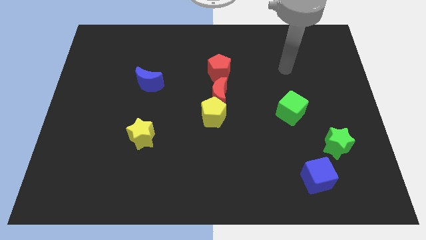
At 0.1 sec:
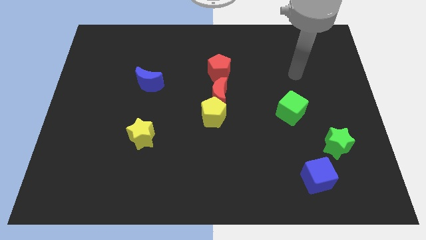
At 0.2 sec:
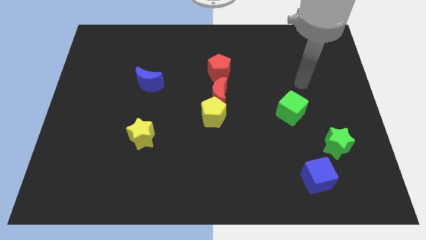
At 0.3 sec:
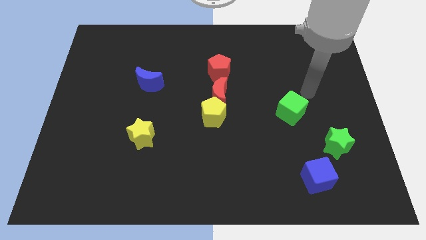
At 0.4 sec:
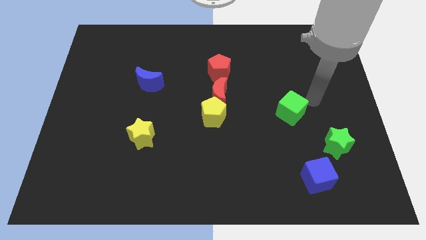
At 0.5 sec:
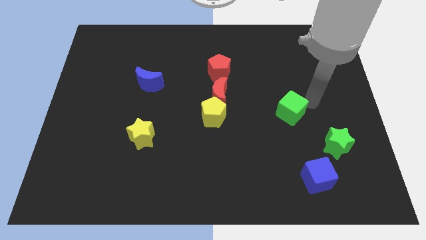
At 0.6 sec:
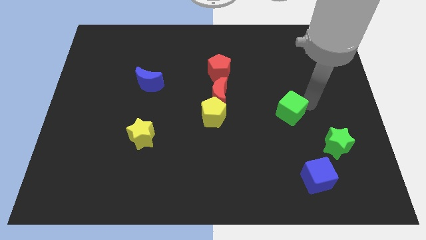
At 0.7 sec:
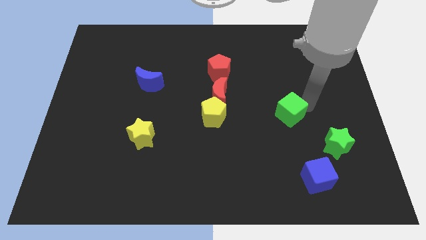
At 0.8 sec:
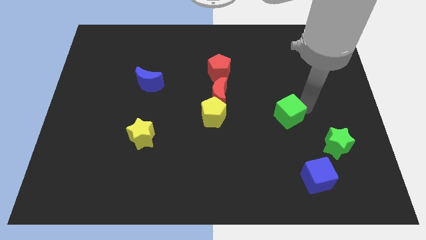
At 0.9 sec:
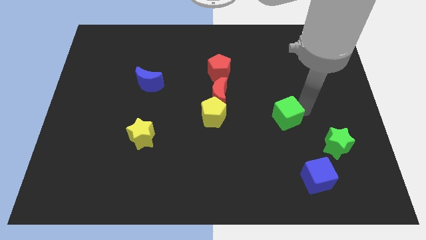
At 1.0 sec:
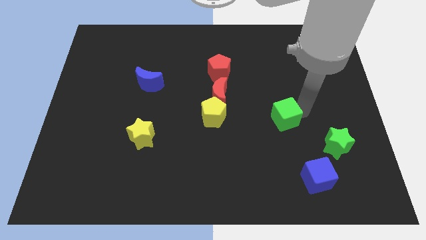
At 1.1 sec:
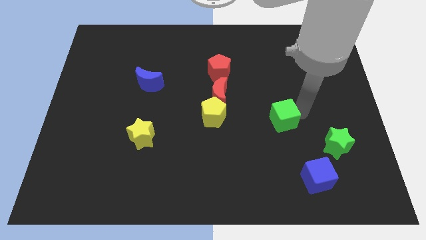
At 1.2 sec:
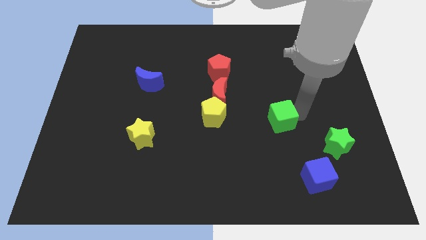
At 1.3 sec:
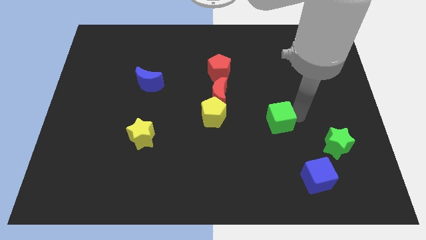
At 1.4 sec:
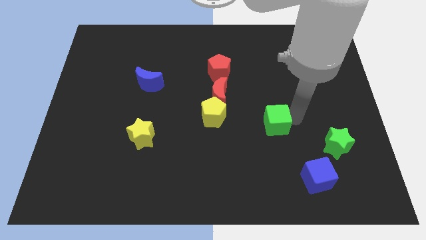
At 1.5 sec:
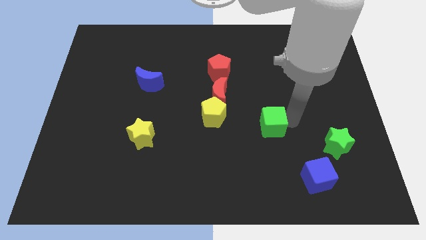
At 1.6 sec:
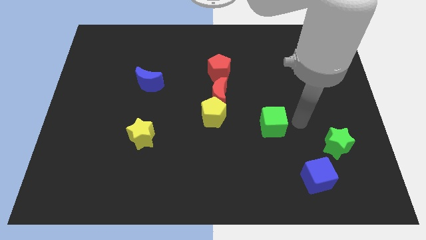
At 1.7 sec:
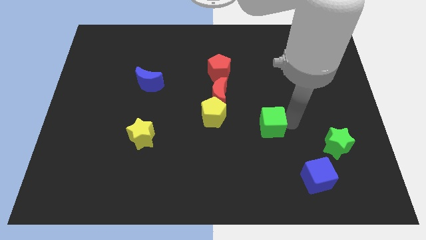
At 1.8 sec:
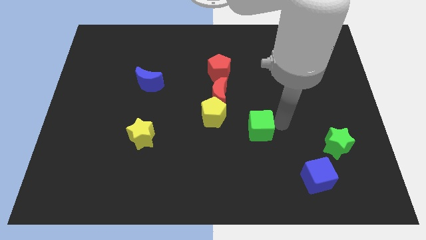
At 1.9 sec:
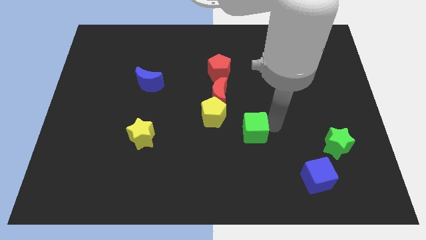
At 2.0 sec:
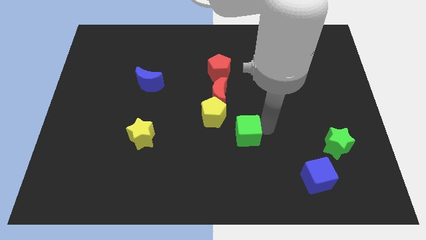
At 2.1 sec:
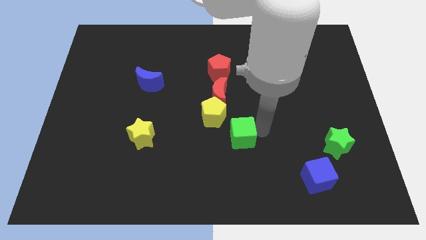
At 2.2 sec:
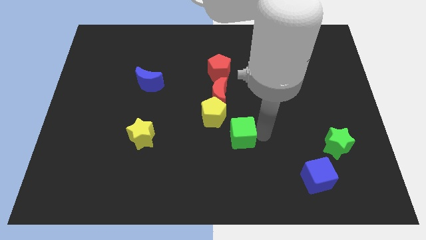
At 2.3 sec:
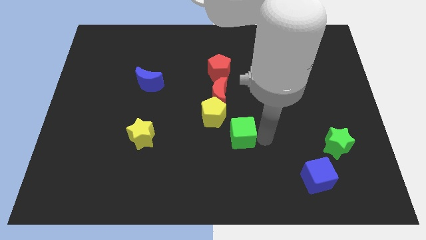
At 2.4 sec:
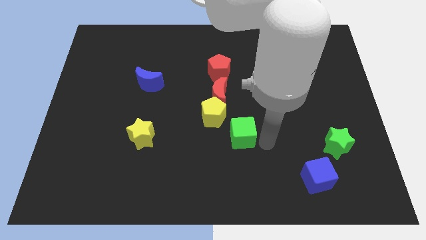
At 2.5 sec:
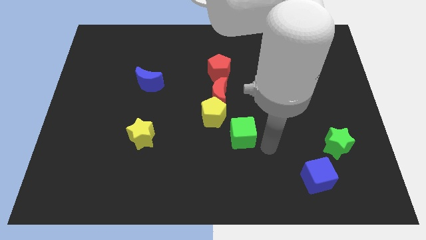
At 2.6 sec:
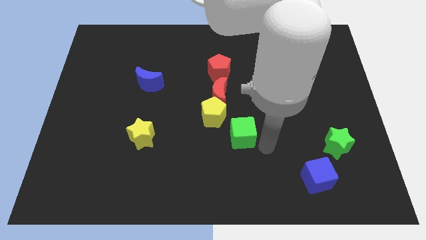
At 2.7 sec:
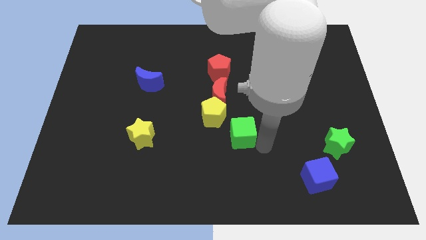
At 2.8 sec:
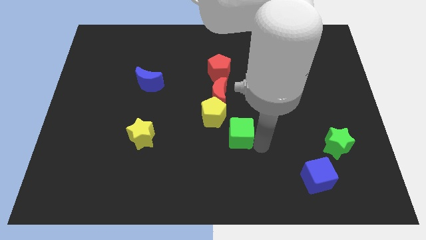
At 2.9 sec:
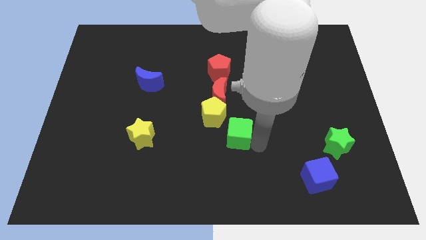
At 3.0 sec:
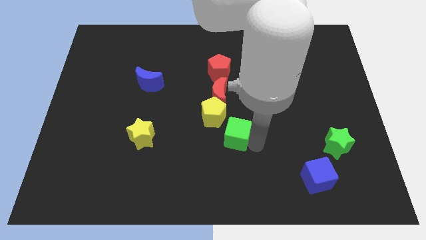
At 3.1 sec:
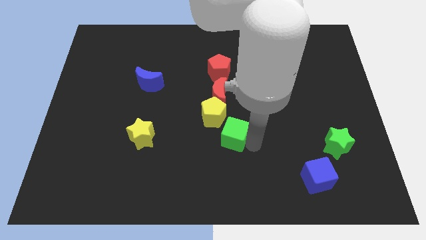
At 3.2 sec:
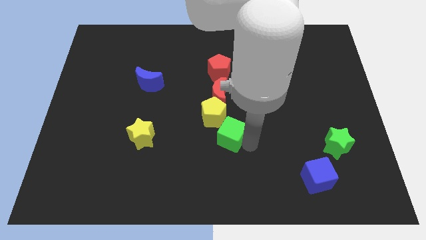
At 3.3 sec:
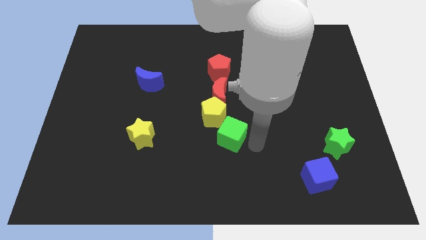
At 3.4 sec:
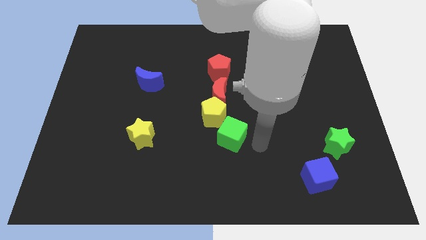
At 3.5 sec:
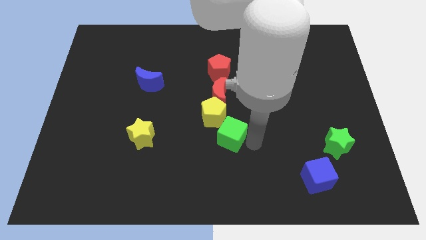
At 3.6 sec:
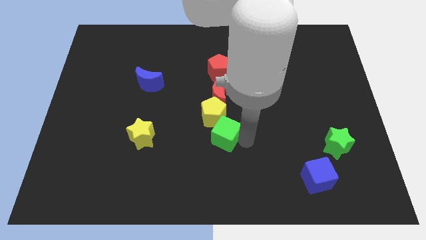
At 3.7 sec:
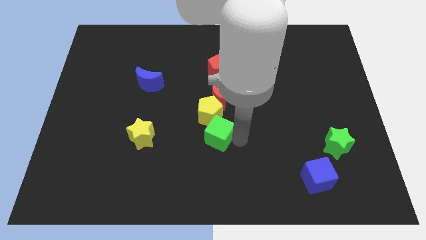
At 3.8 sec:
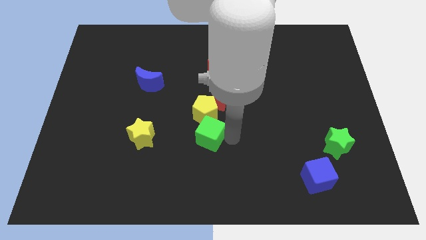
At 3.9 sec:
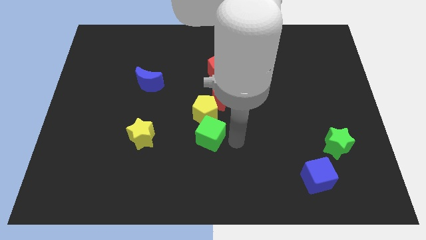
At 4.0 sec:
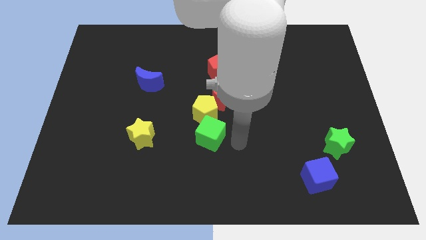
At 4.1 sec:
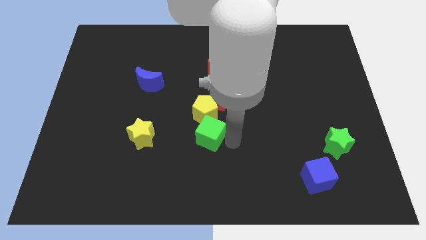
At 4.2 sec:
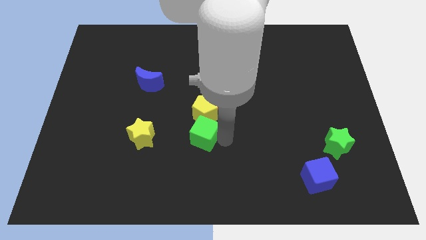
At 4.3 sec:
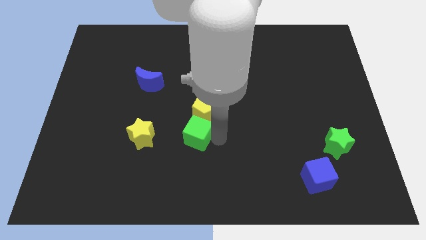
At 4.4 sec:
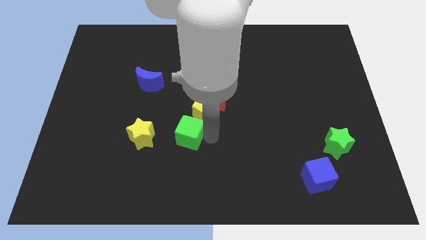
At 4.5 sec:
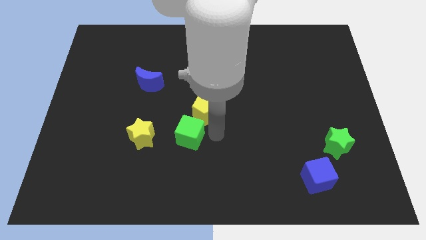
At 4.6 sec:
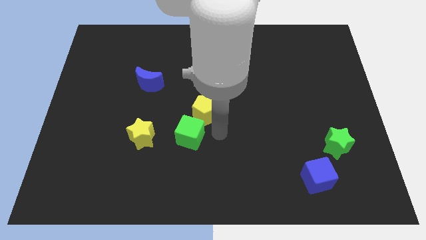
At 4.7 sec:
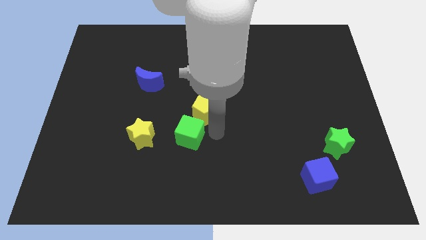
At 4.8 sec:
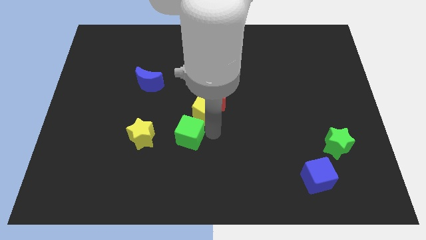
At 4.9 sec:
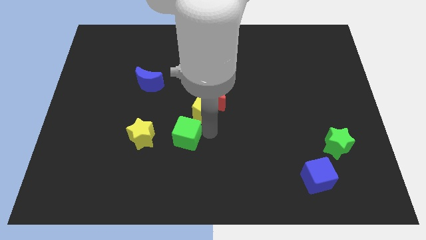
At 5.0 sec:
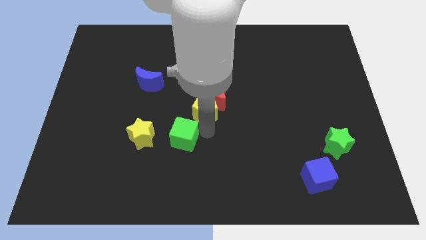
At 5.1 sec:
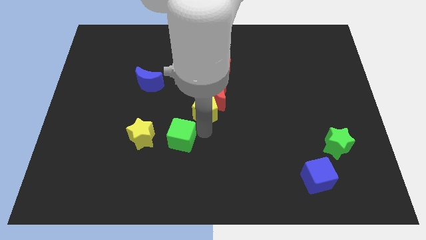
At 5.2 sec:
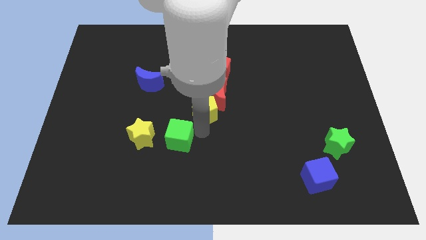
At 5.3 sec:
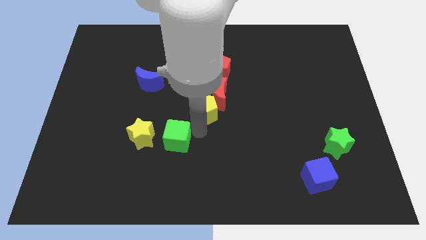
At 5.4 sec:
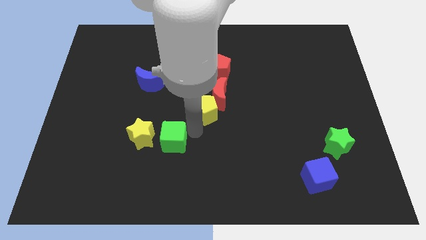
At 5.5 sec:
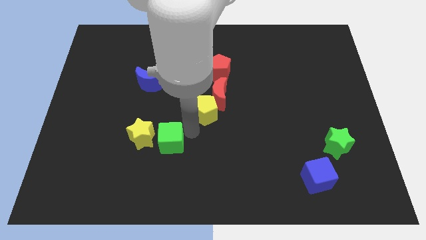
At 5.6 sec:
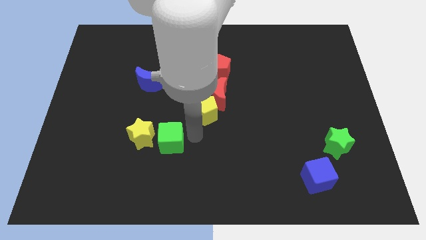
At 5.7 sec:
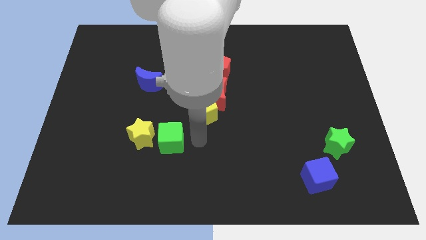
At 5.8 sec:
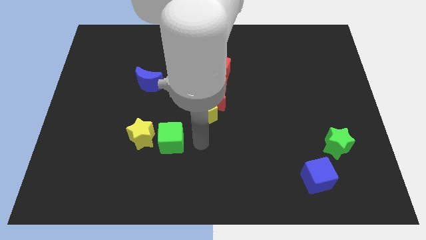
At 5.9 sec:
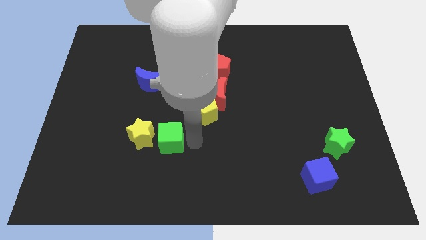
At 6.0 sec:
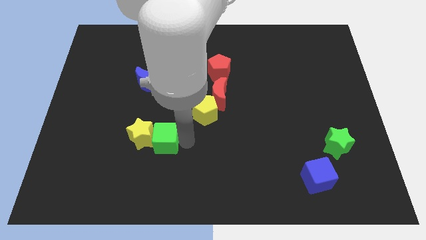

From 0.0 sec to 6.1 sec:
slide the green cube to the yellow star

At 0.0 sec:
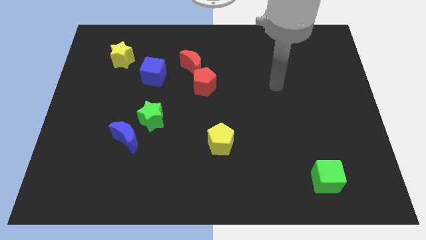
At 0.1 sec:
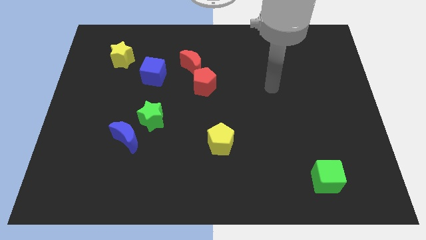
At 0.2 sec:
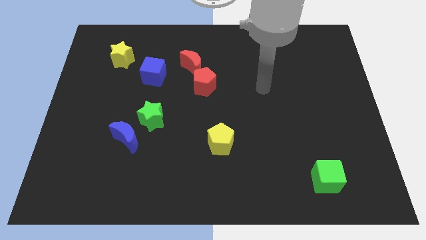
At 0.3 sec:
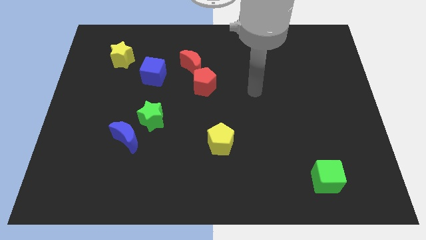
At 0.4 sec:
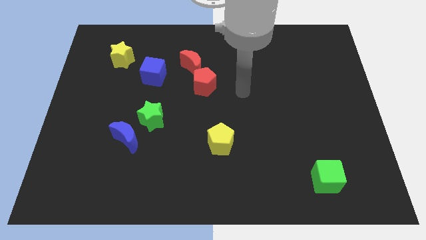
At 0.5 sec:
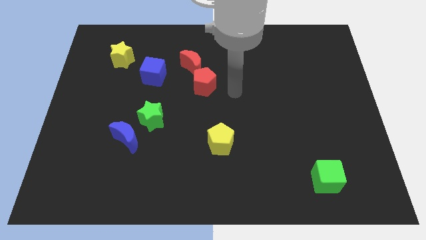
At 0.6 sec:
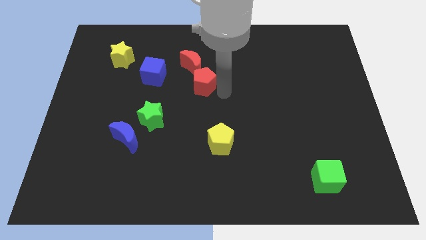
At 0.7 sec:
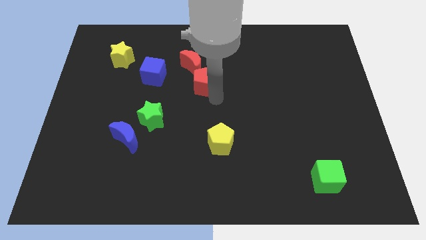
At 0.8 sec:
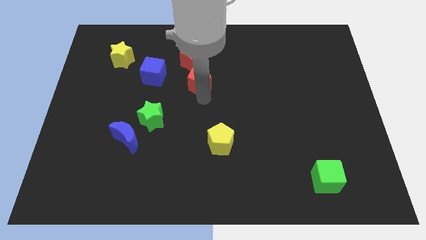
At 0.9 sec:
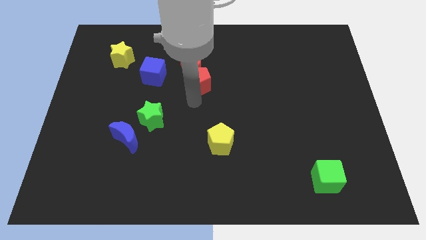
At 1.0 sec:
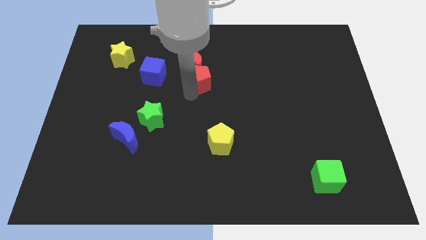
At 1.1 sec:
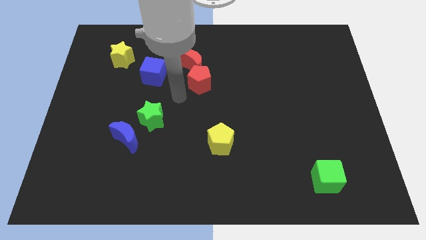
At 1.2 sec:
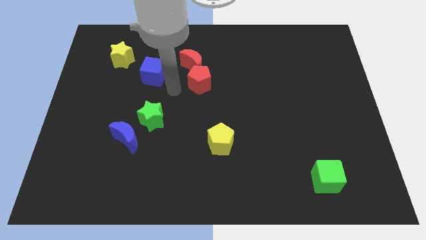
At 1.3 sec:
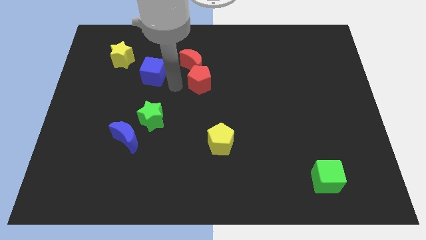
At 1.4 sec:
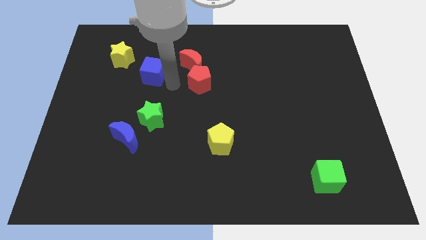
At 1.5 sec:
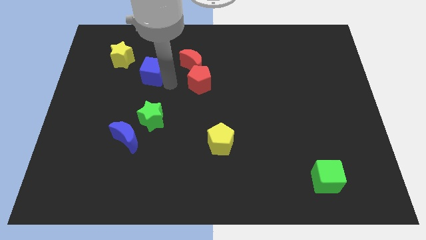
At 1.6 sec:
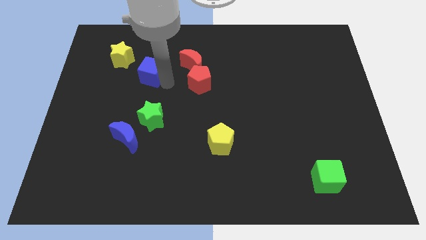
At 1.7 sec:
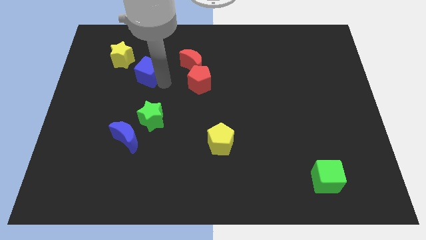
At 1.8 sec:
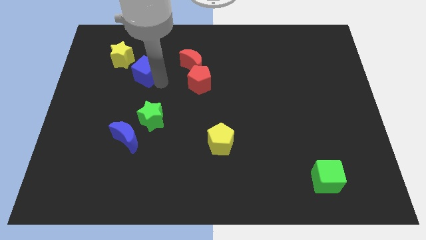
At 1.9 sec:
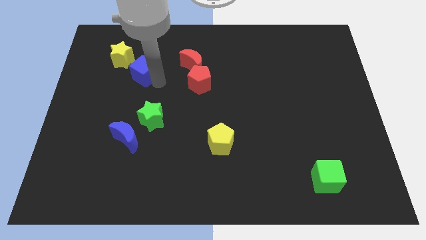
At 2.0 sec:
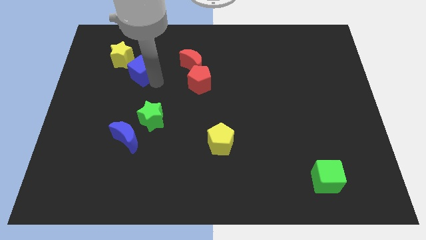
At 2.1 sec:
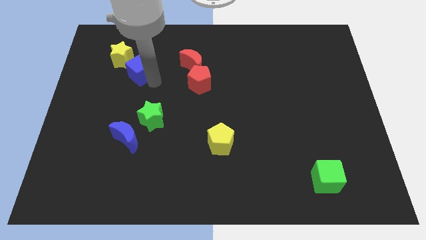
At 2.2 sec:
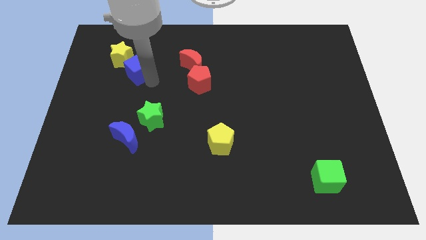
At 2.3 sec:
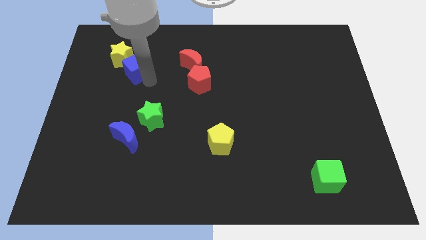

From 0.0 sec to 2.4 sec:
slide the blue cube to the yellow star
